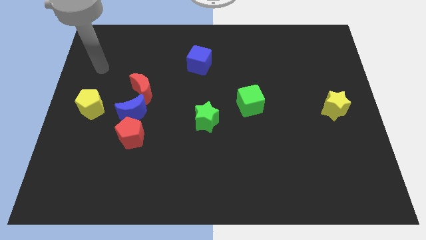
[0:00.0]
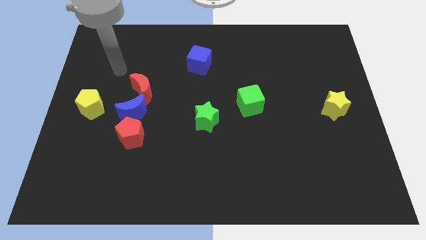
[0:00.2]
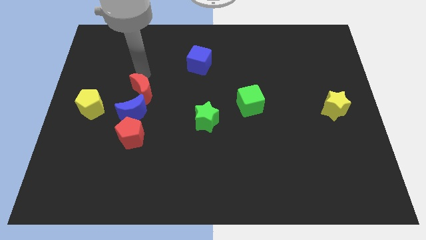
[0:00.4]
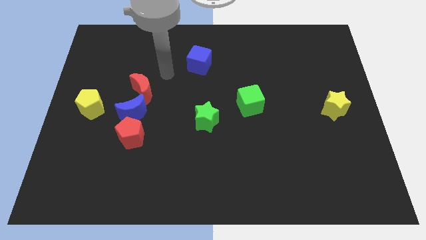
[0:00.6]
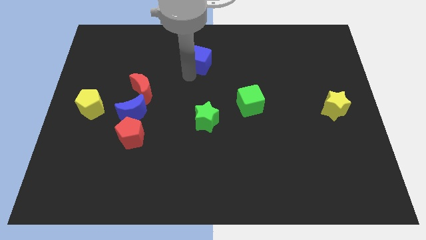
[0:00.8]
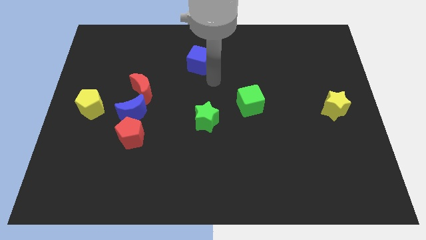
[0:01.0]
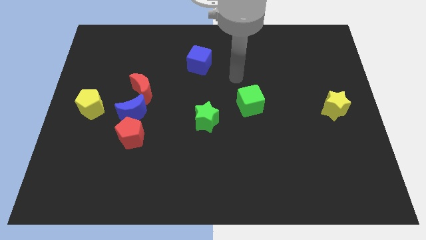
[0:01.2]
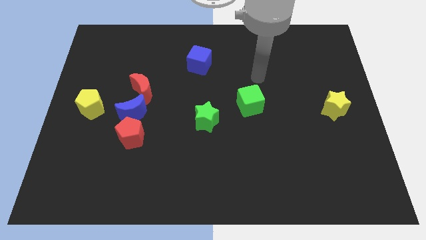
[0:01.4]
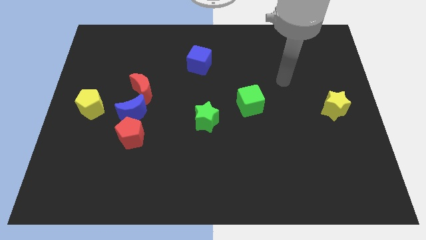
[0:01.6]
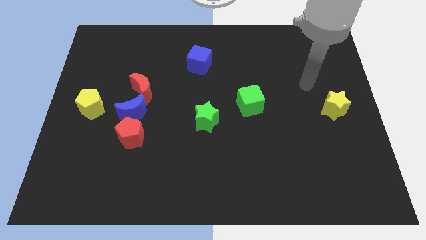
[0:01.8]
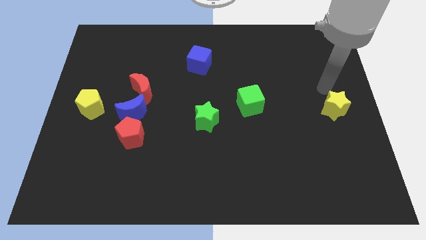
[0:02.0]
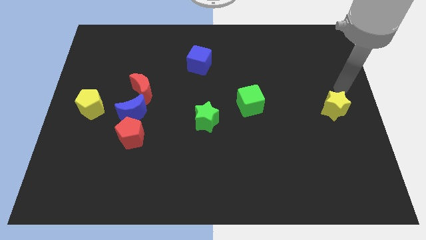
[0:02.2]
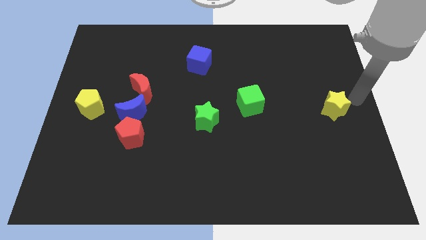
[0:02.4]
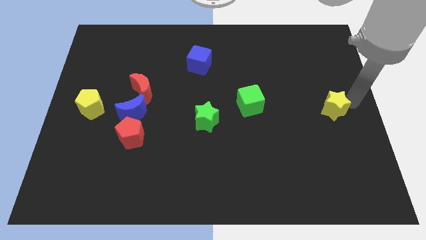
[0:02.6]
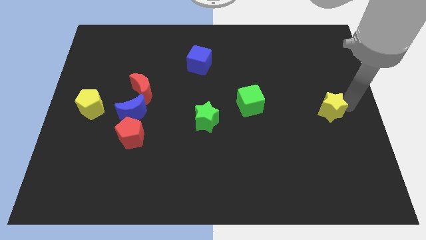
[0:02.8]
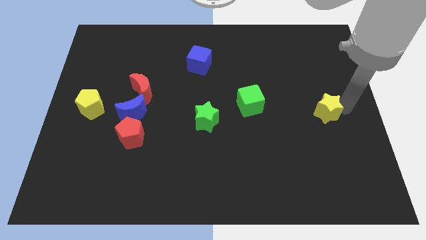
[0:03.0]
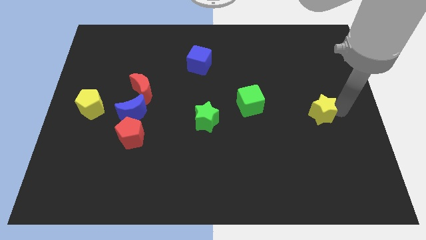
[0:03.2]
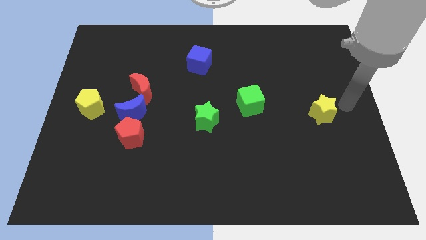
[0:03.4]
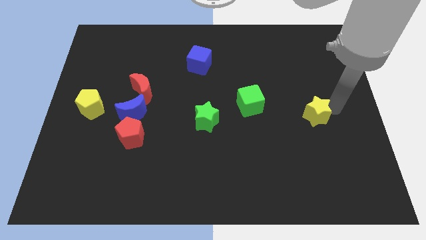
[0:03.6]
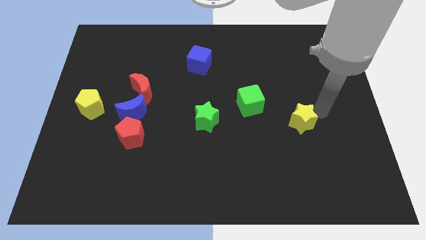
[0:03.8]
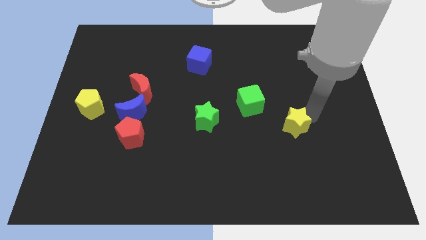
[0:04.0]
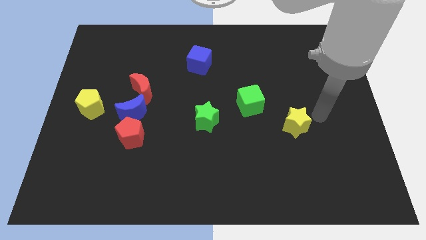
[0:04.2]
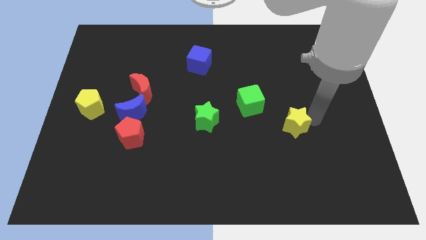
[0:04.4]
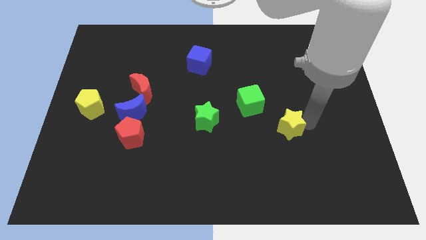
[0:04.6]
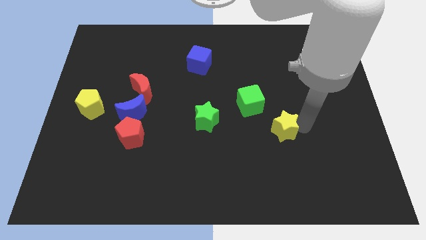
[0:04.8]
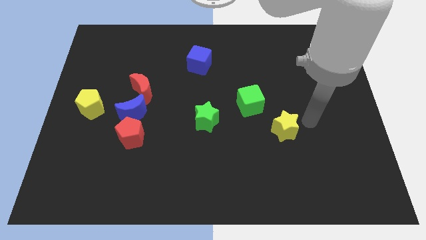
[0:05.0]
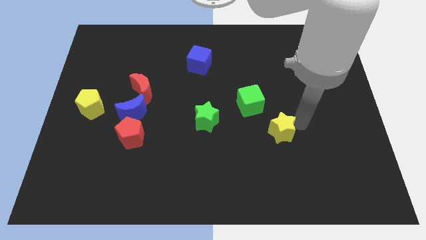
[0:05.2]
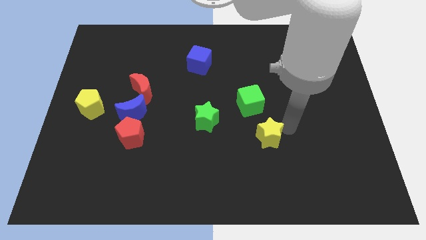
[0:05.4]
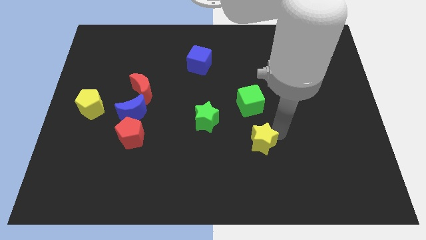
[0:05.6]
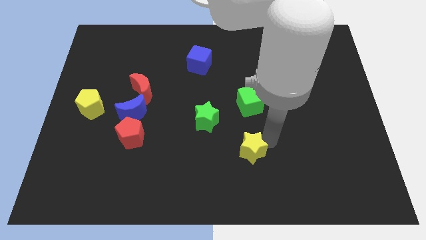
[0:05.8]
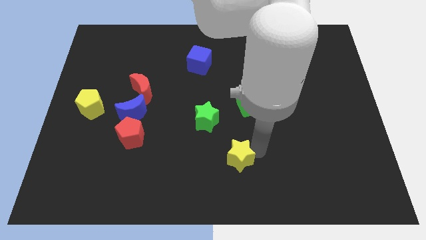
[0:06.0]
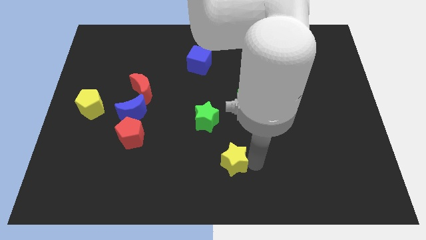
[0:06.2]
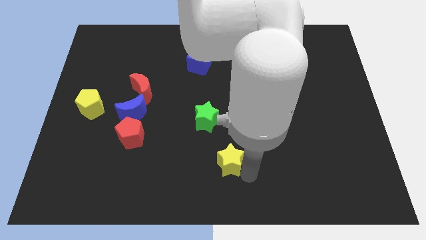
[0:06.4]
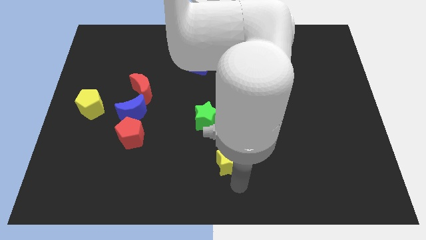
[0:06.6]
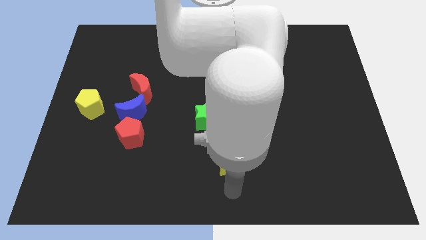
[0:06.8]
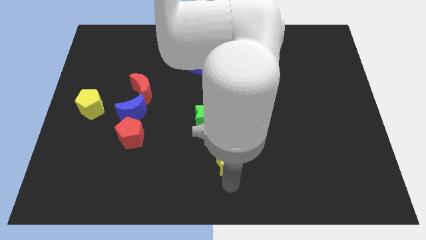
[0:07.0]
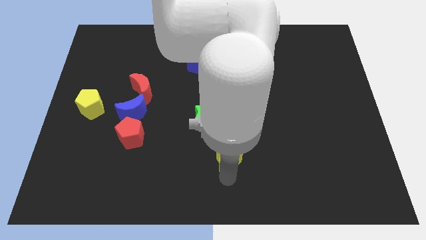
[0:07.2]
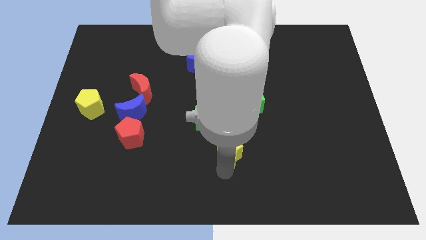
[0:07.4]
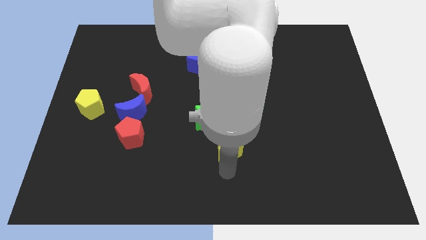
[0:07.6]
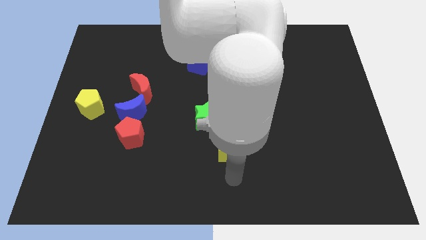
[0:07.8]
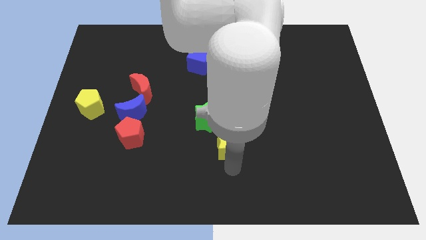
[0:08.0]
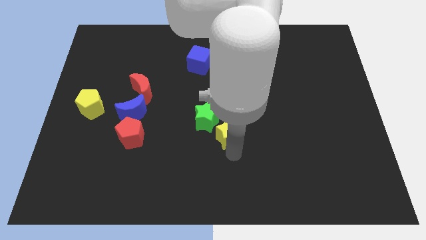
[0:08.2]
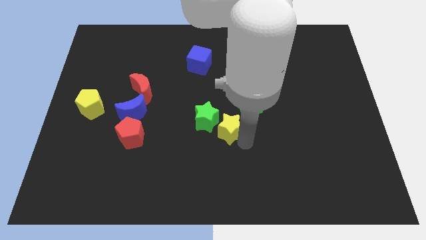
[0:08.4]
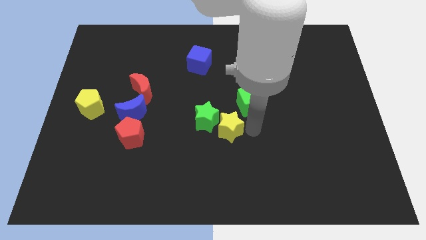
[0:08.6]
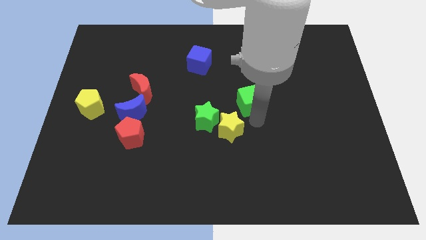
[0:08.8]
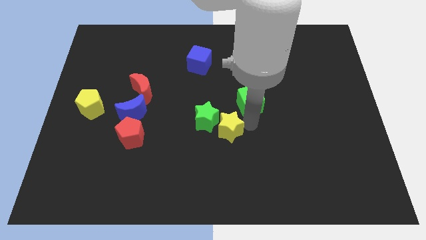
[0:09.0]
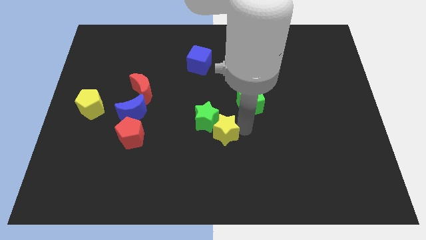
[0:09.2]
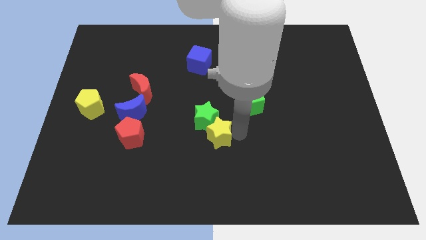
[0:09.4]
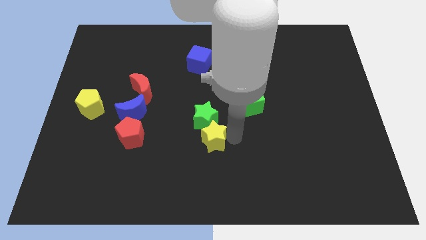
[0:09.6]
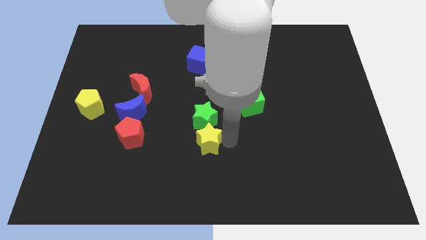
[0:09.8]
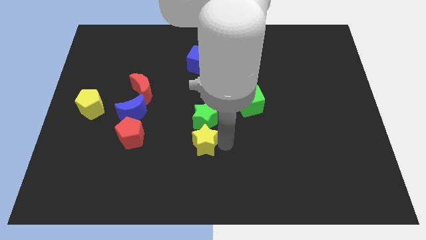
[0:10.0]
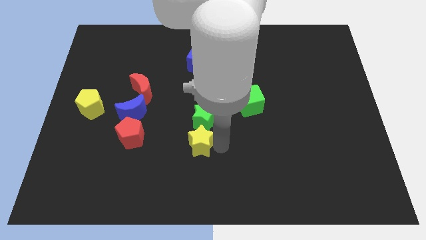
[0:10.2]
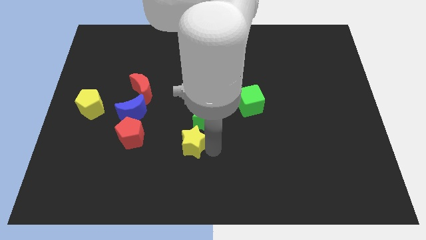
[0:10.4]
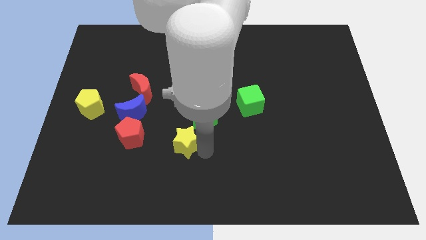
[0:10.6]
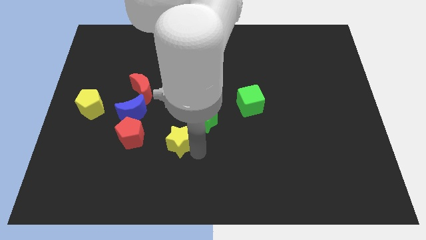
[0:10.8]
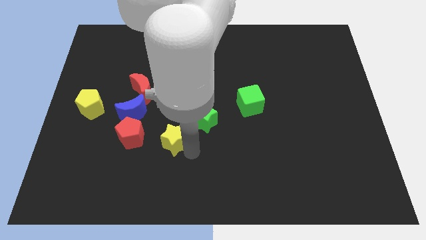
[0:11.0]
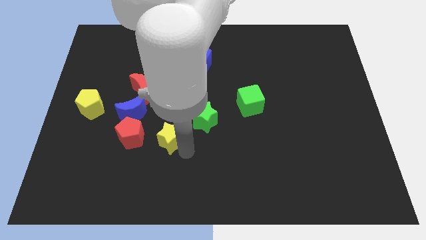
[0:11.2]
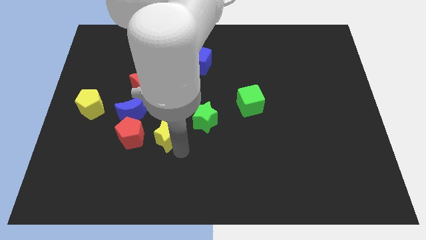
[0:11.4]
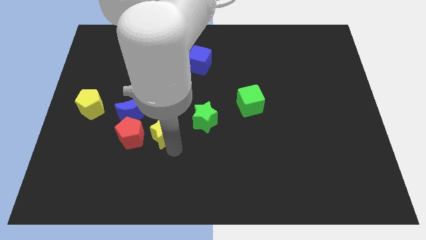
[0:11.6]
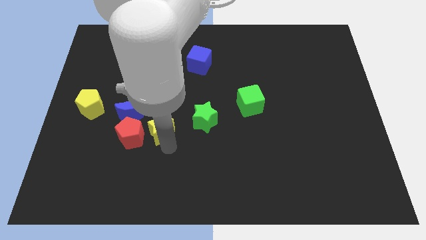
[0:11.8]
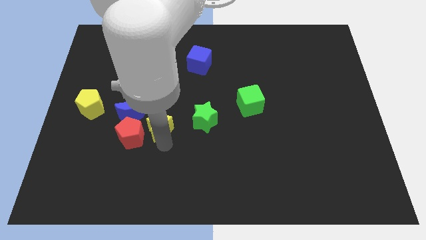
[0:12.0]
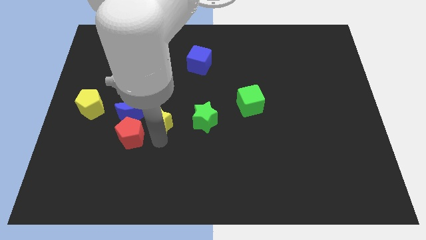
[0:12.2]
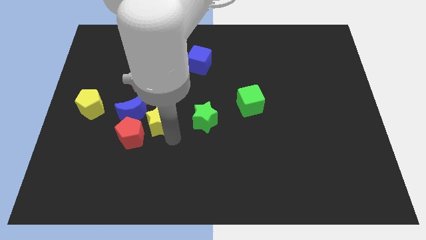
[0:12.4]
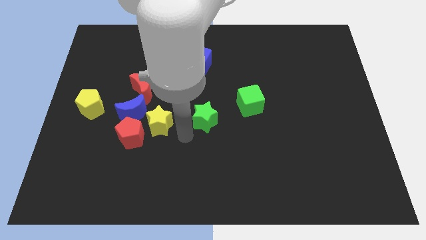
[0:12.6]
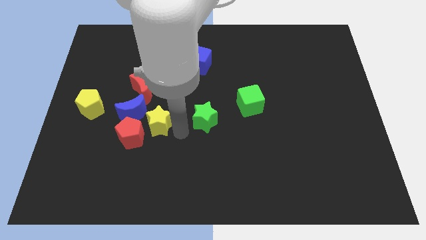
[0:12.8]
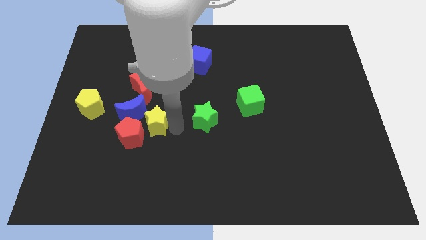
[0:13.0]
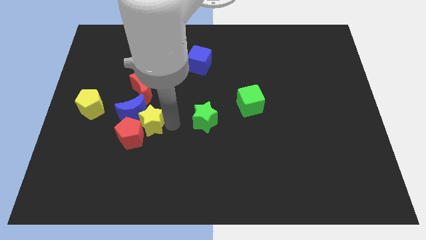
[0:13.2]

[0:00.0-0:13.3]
put the yellow star next to the blue moon

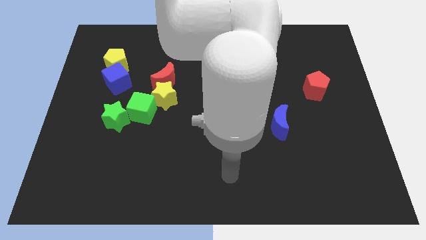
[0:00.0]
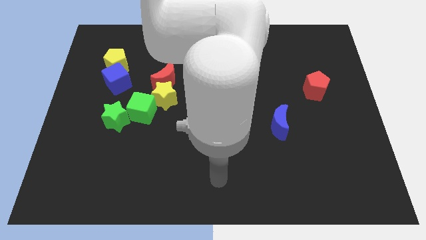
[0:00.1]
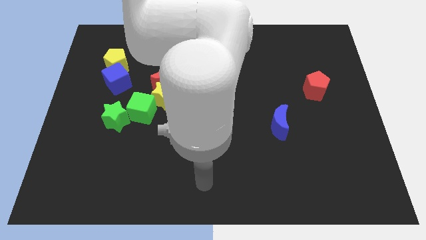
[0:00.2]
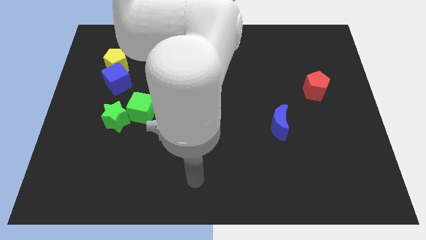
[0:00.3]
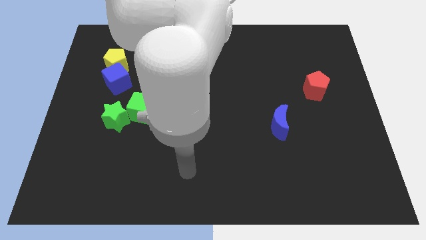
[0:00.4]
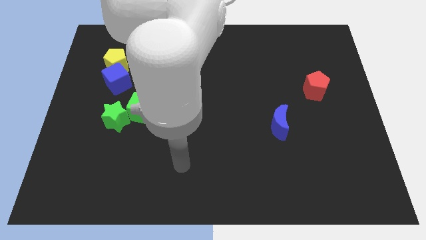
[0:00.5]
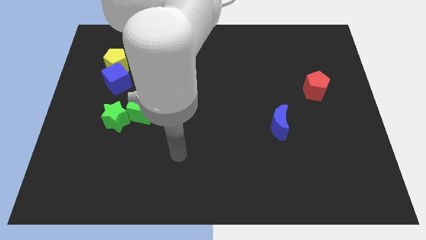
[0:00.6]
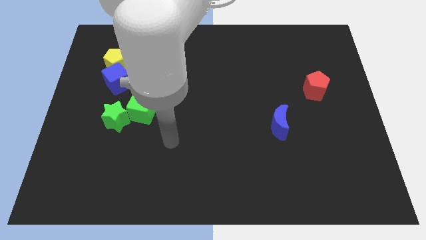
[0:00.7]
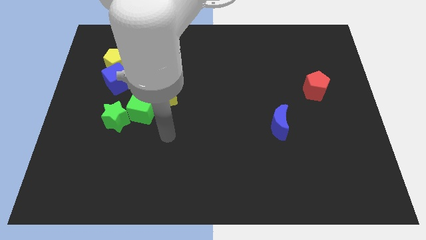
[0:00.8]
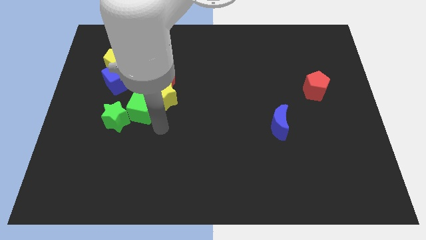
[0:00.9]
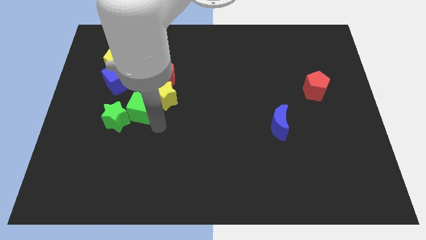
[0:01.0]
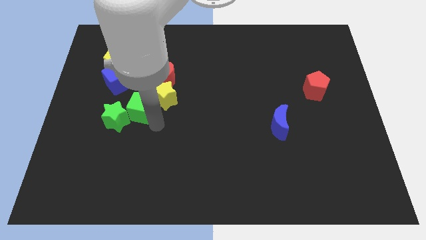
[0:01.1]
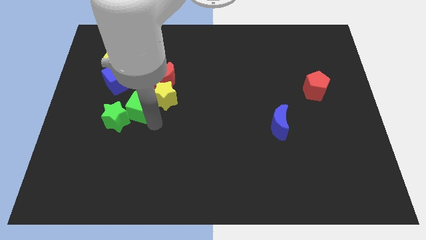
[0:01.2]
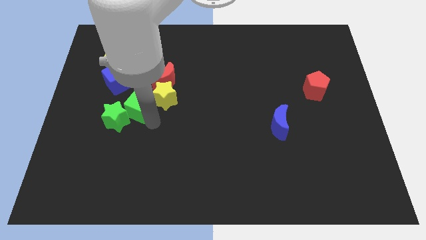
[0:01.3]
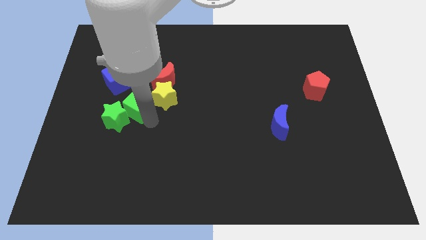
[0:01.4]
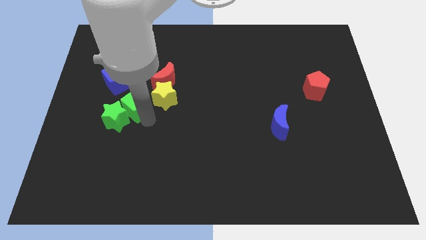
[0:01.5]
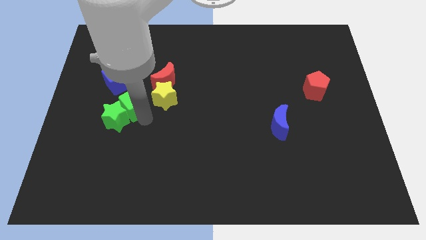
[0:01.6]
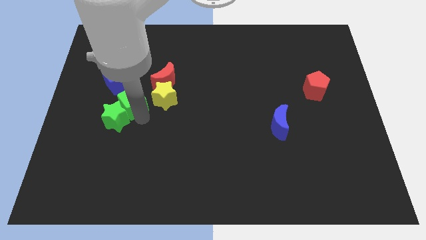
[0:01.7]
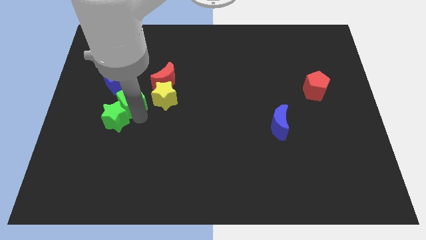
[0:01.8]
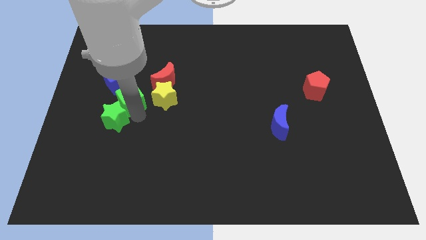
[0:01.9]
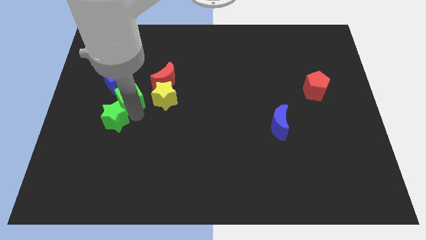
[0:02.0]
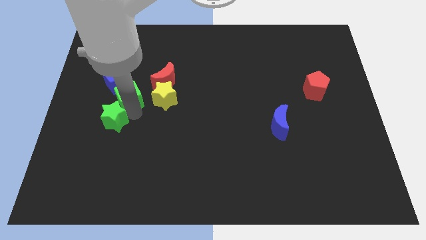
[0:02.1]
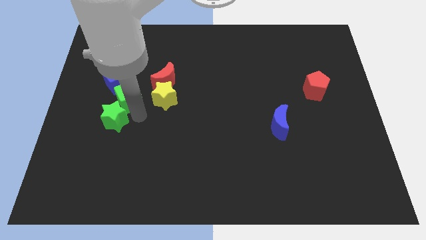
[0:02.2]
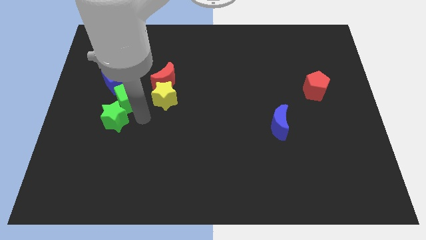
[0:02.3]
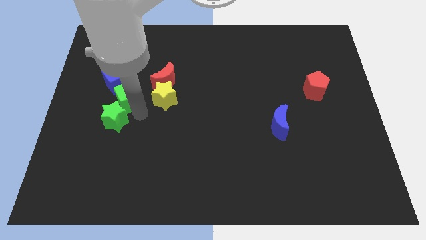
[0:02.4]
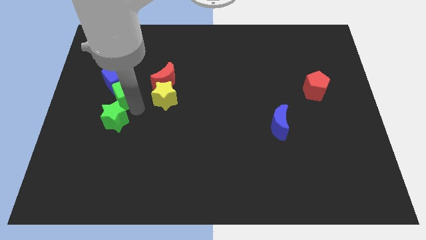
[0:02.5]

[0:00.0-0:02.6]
move the green cube close to the blue cube
